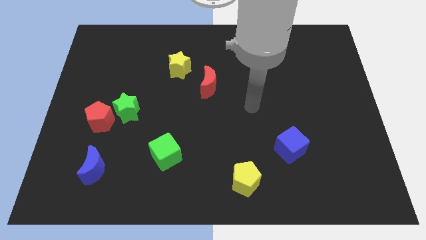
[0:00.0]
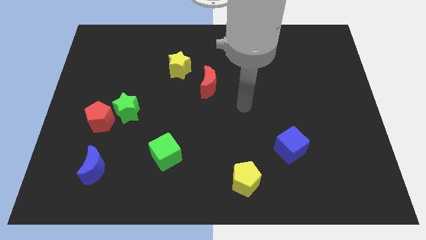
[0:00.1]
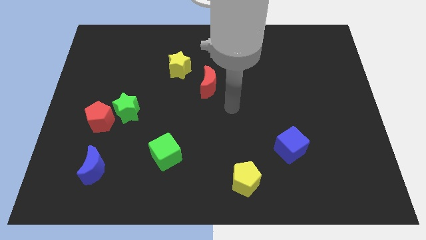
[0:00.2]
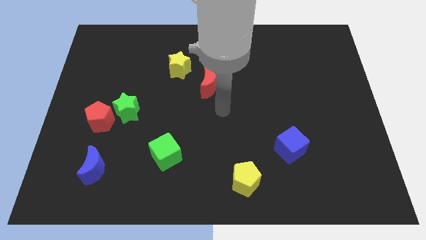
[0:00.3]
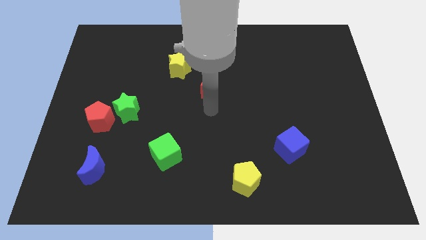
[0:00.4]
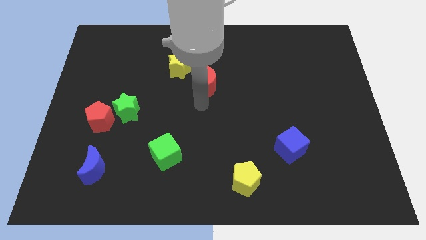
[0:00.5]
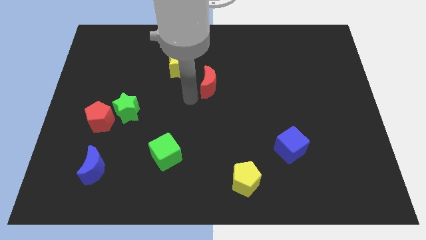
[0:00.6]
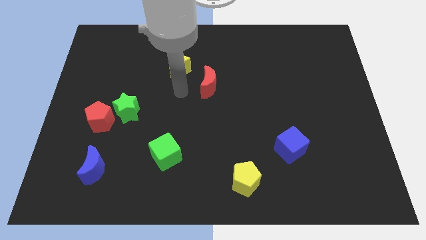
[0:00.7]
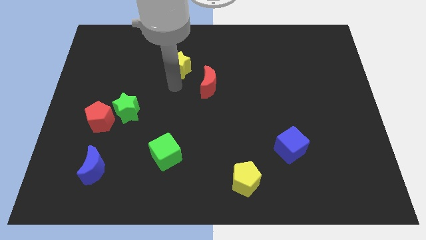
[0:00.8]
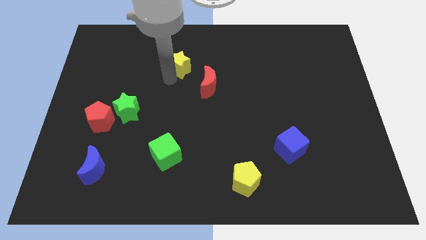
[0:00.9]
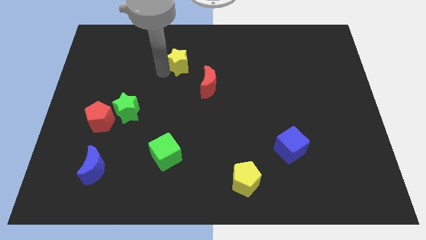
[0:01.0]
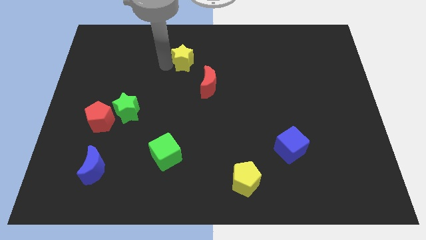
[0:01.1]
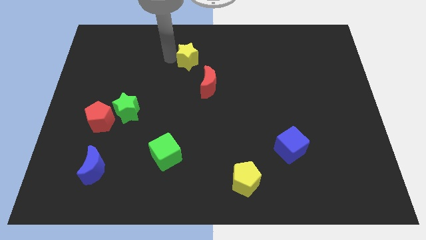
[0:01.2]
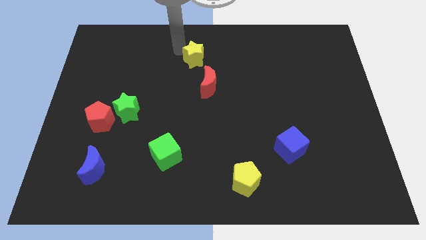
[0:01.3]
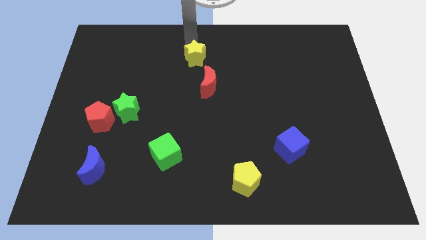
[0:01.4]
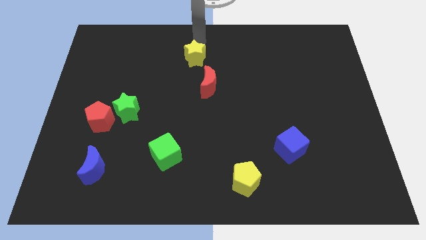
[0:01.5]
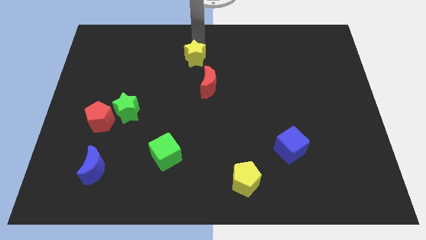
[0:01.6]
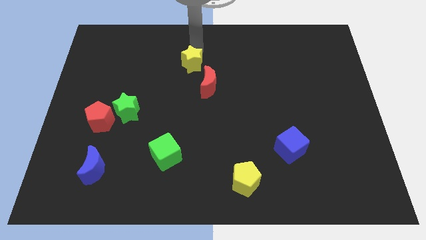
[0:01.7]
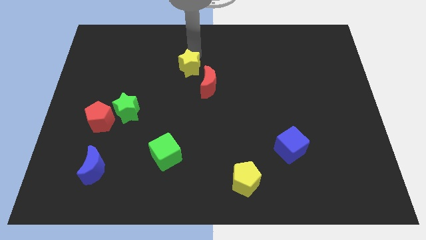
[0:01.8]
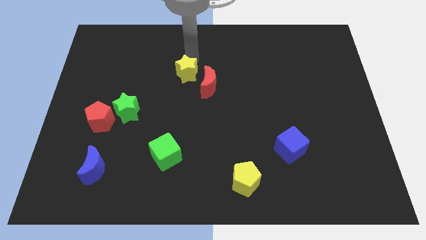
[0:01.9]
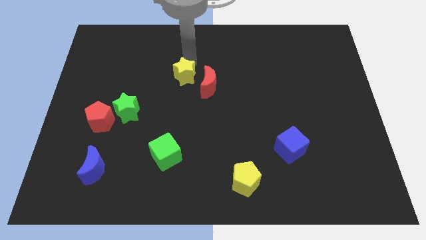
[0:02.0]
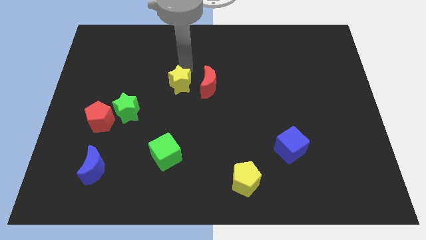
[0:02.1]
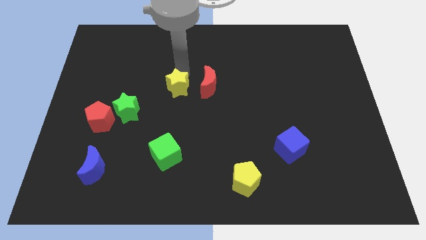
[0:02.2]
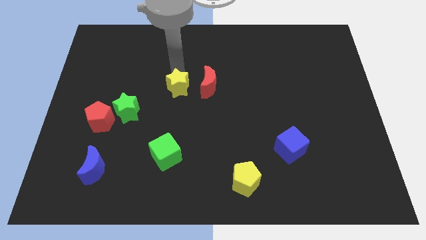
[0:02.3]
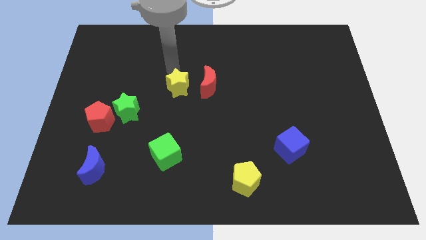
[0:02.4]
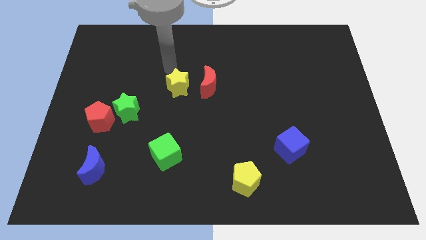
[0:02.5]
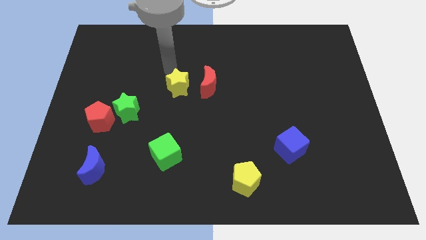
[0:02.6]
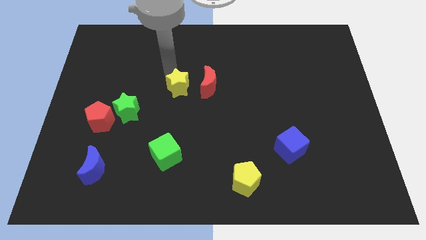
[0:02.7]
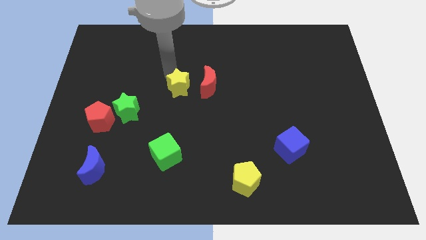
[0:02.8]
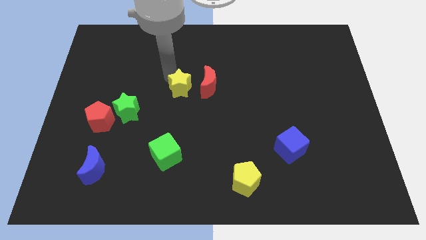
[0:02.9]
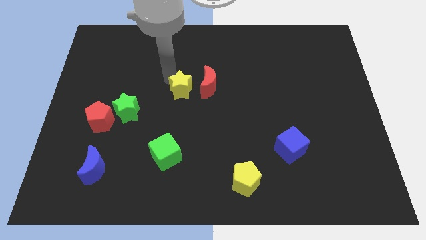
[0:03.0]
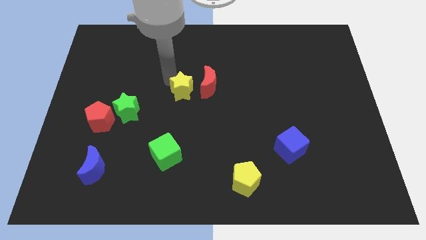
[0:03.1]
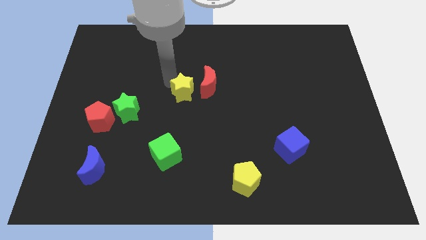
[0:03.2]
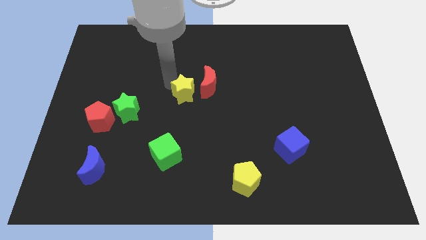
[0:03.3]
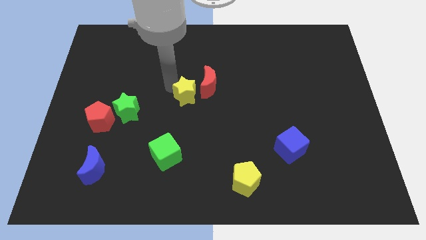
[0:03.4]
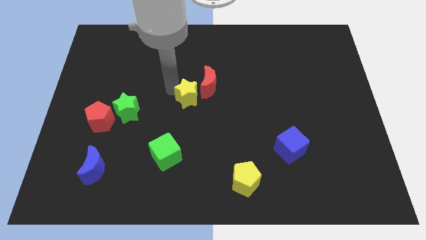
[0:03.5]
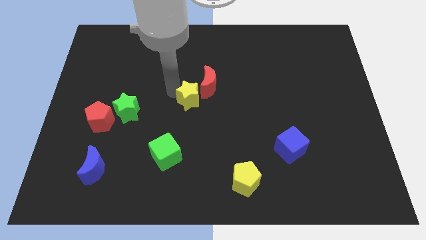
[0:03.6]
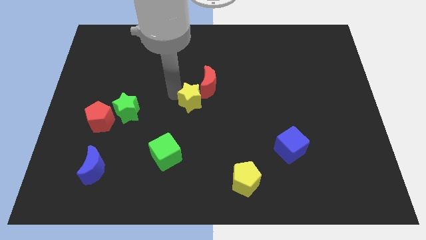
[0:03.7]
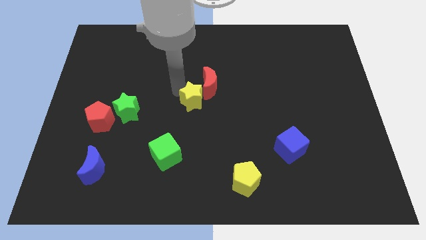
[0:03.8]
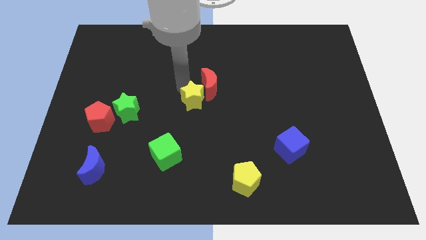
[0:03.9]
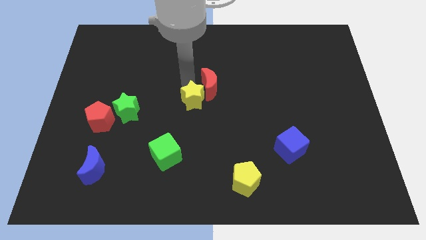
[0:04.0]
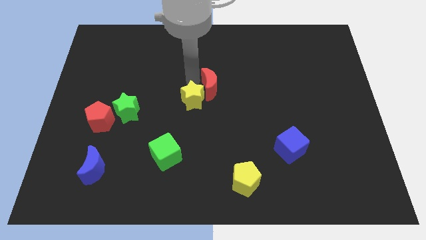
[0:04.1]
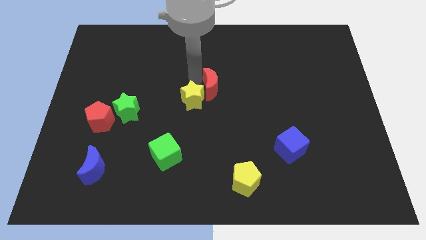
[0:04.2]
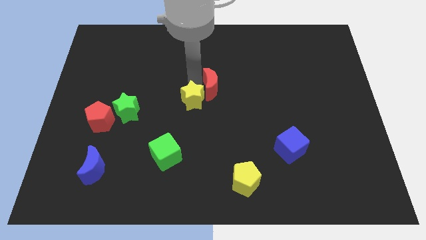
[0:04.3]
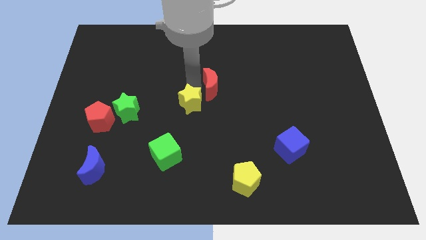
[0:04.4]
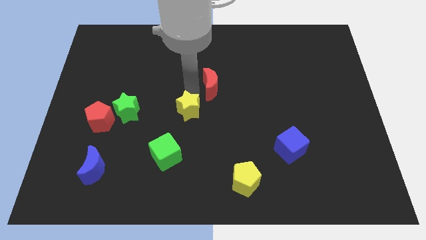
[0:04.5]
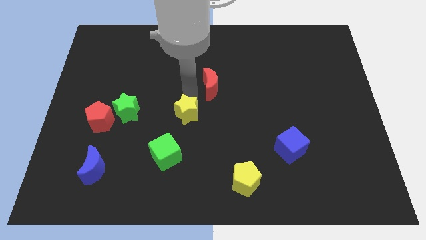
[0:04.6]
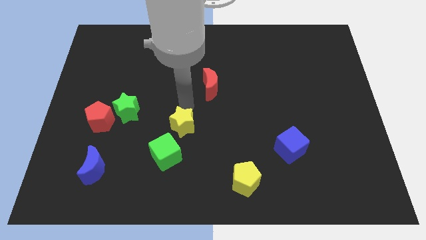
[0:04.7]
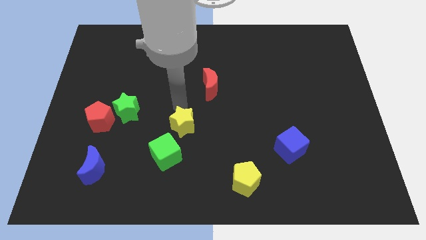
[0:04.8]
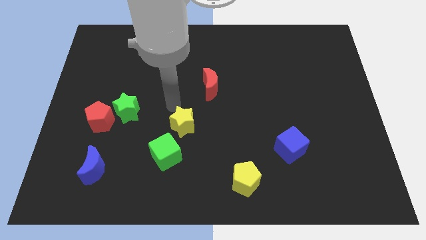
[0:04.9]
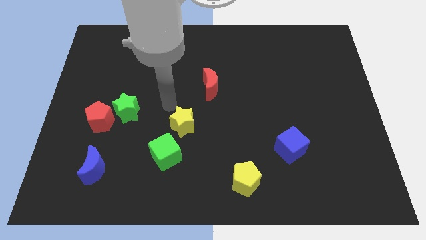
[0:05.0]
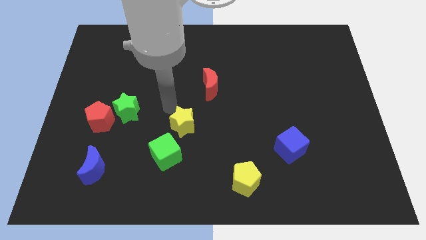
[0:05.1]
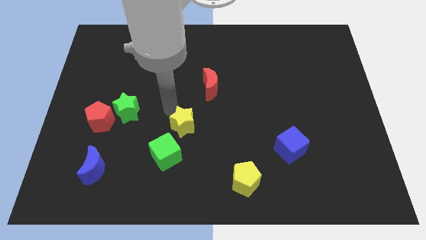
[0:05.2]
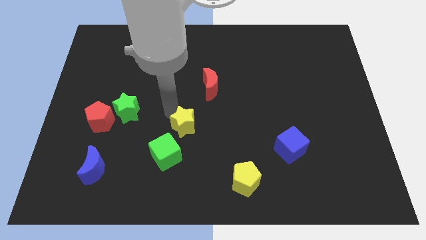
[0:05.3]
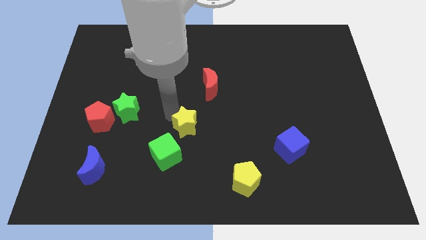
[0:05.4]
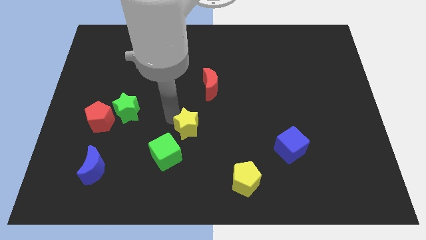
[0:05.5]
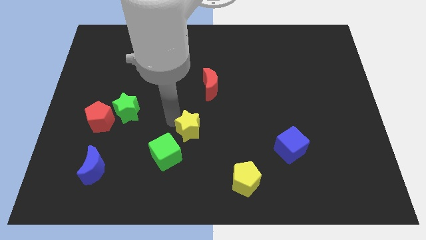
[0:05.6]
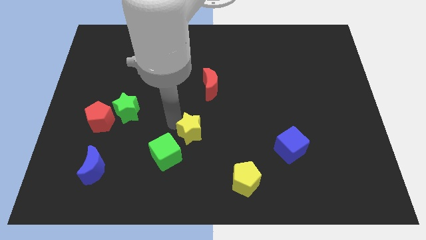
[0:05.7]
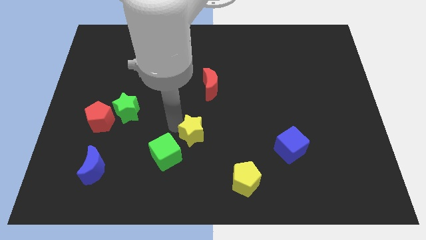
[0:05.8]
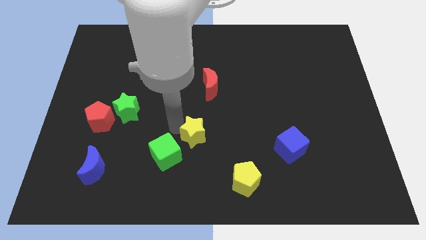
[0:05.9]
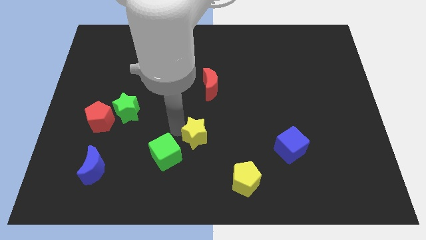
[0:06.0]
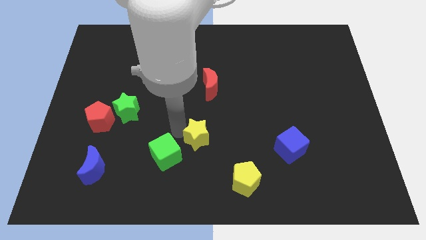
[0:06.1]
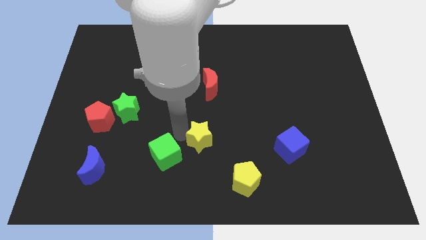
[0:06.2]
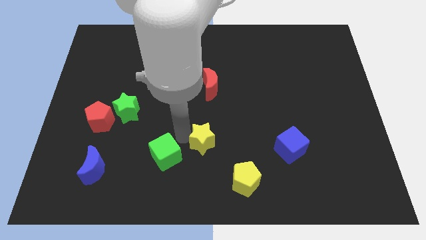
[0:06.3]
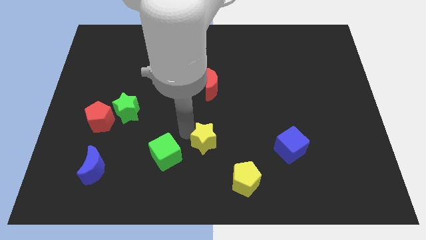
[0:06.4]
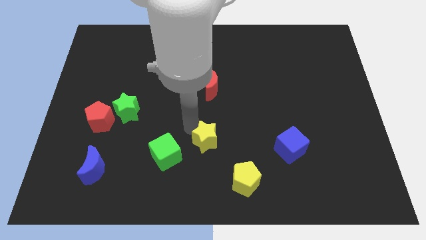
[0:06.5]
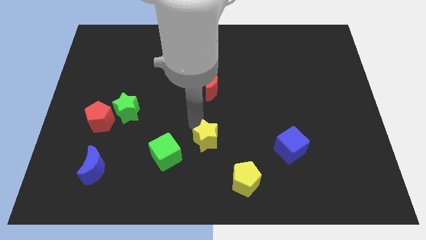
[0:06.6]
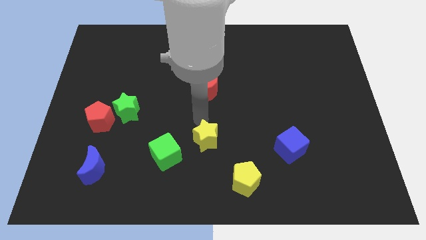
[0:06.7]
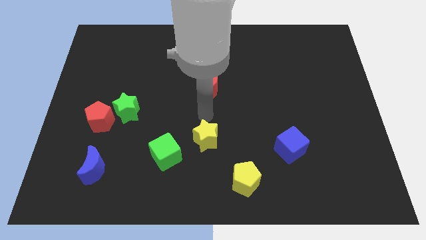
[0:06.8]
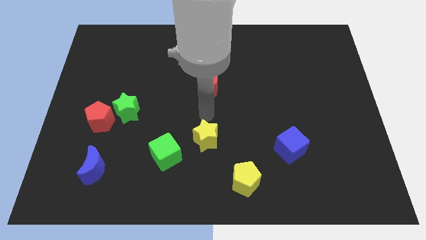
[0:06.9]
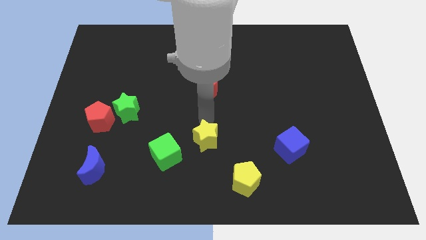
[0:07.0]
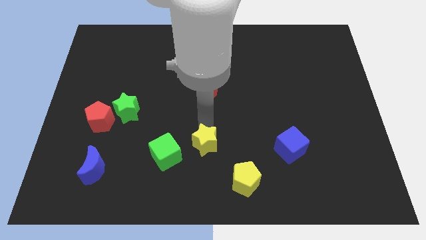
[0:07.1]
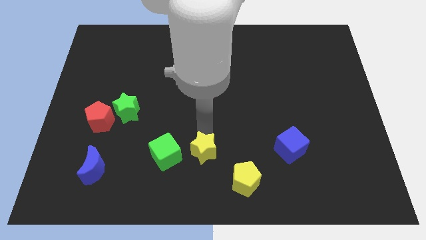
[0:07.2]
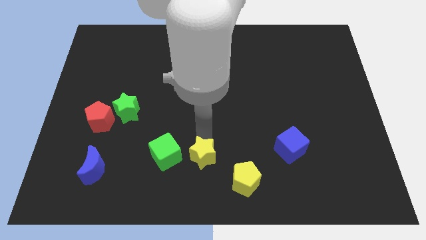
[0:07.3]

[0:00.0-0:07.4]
put the yellow star to the bottom
